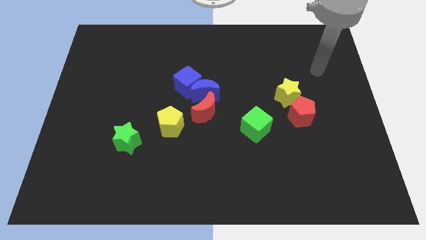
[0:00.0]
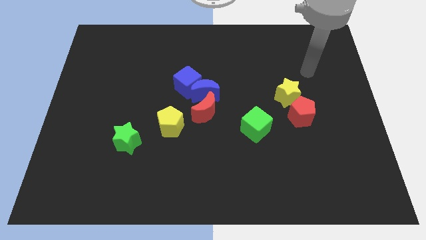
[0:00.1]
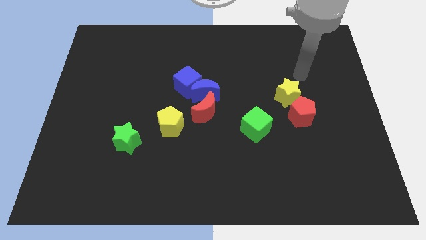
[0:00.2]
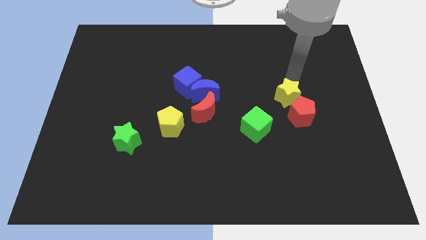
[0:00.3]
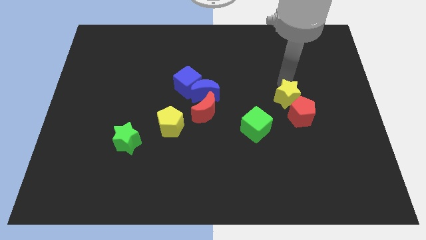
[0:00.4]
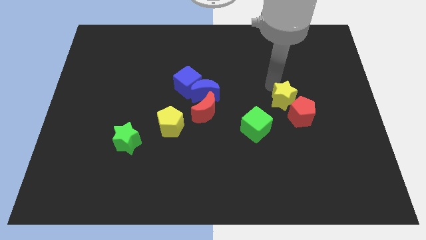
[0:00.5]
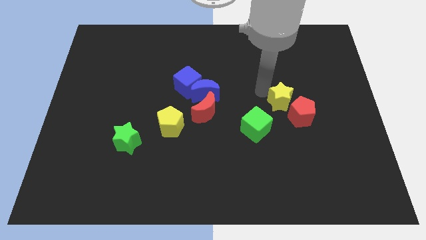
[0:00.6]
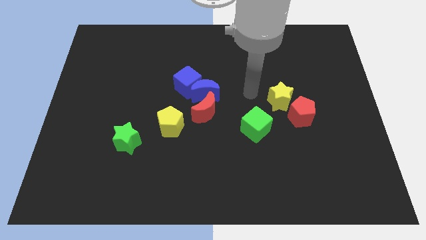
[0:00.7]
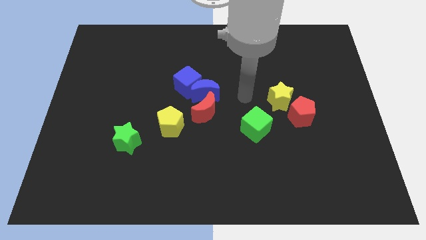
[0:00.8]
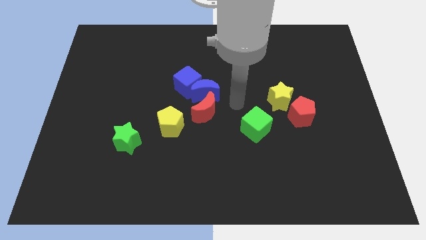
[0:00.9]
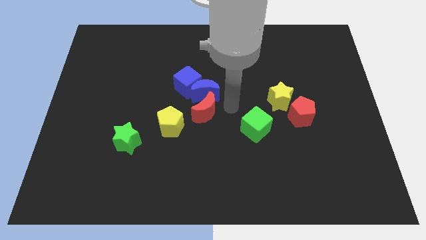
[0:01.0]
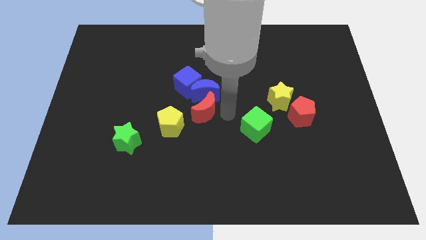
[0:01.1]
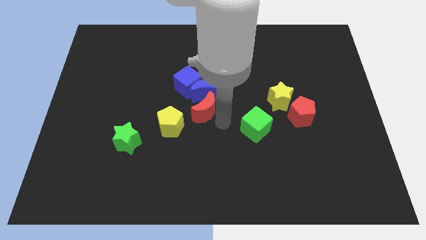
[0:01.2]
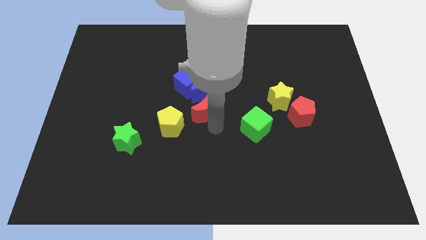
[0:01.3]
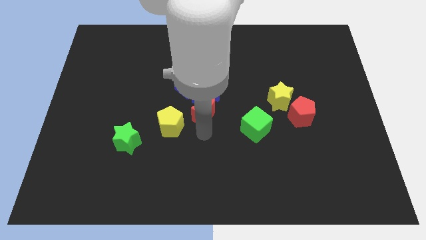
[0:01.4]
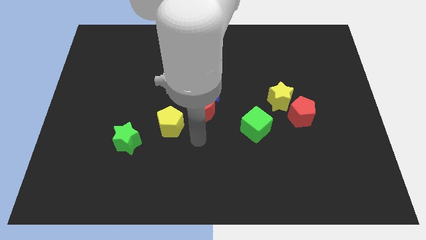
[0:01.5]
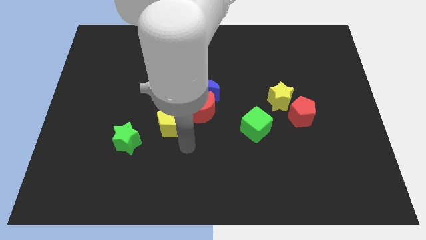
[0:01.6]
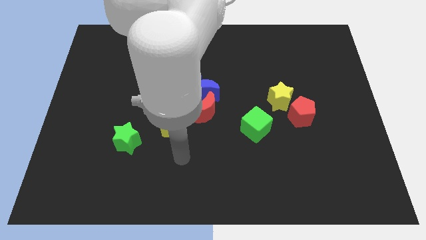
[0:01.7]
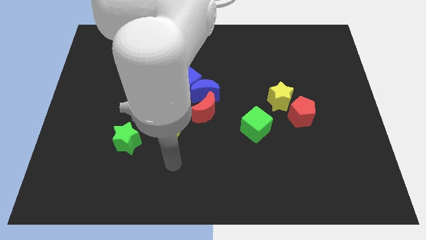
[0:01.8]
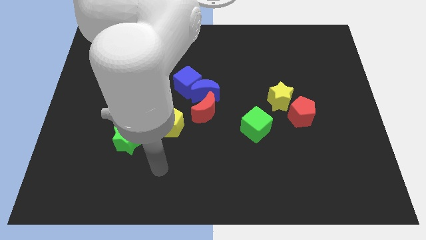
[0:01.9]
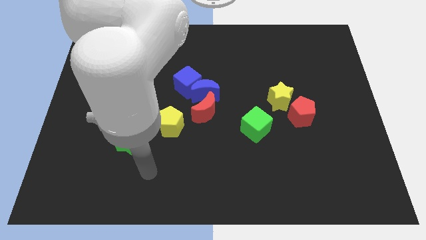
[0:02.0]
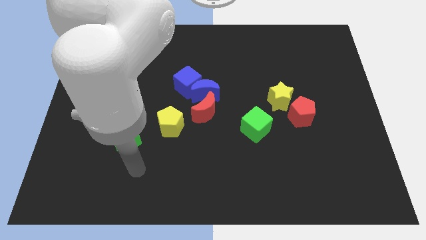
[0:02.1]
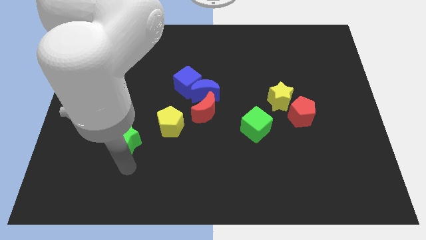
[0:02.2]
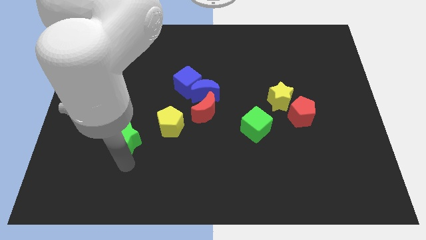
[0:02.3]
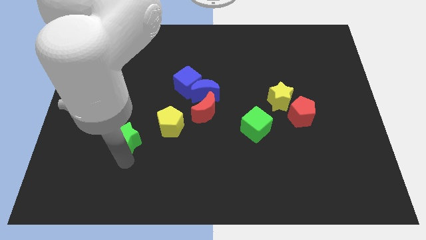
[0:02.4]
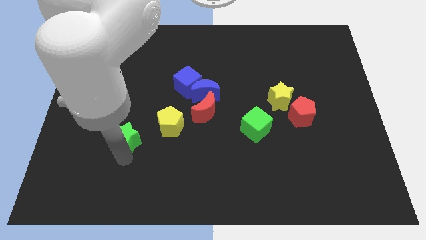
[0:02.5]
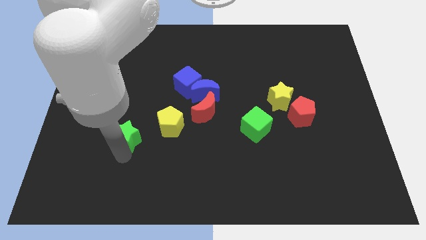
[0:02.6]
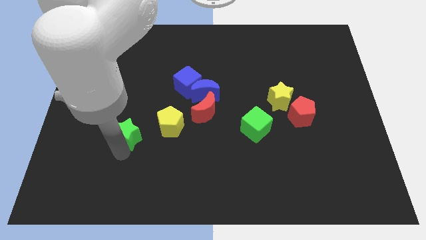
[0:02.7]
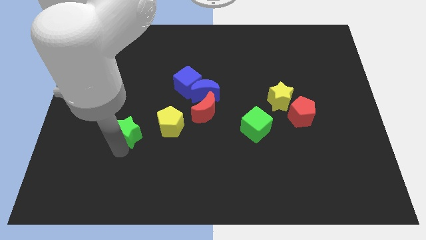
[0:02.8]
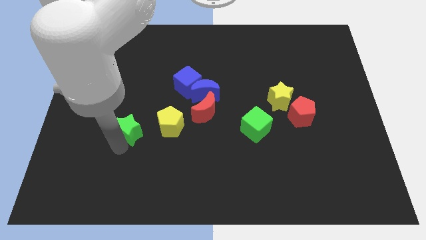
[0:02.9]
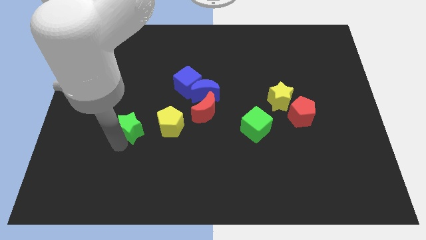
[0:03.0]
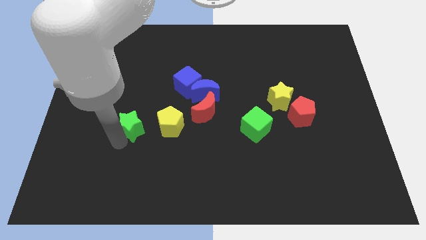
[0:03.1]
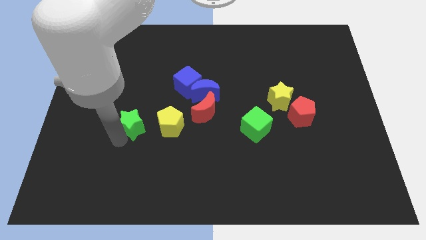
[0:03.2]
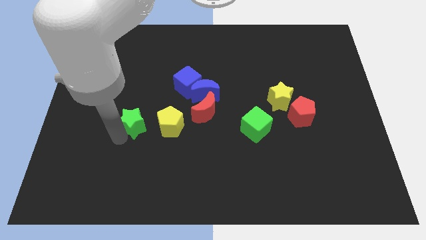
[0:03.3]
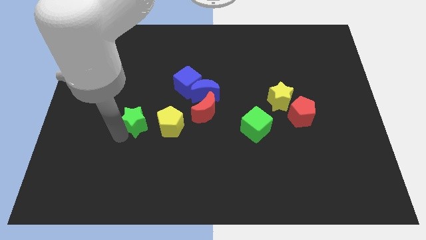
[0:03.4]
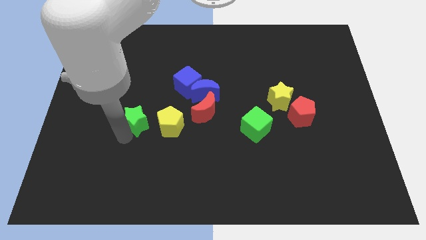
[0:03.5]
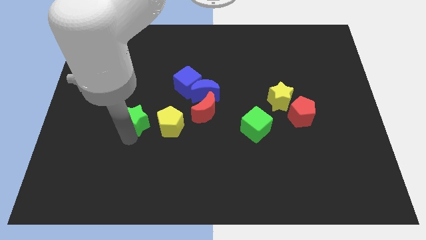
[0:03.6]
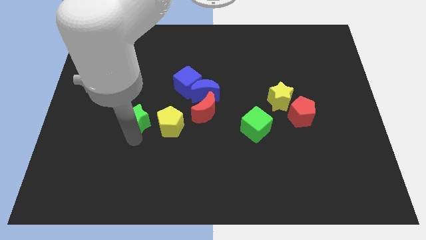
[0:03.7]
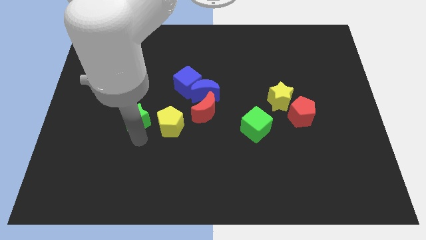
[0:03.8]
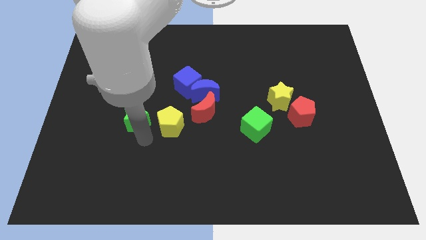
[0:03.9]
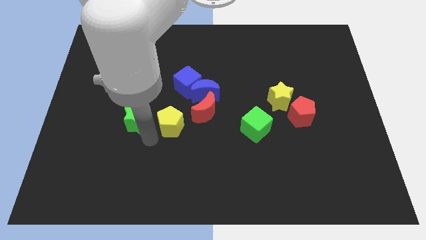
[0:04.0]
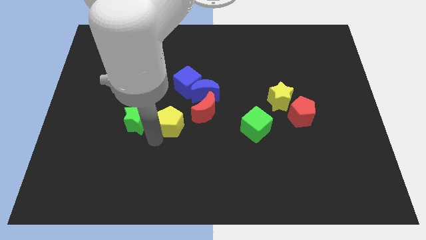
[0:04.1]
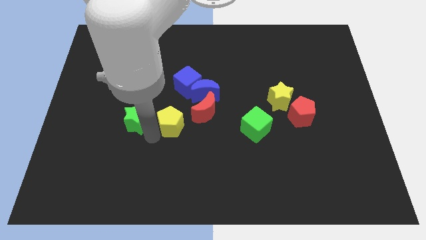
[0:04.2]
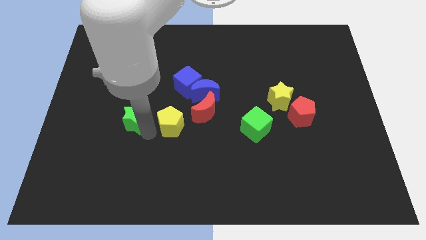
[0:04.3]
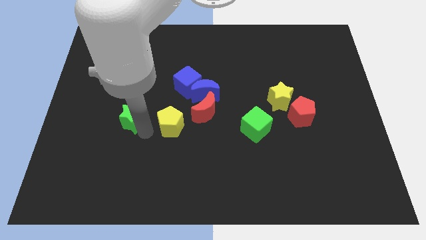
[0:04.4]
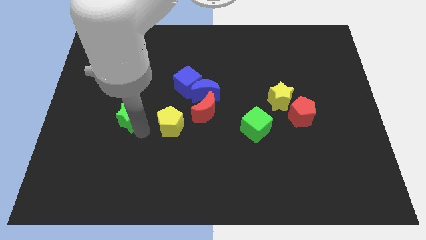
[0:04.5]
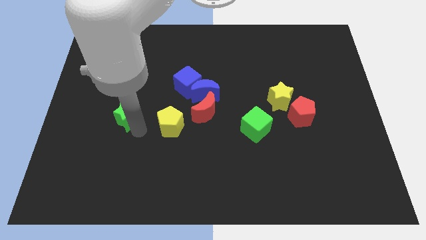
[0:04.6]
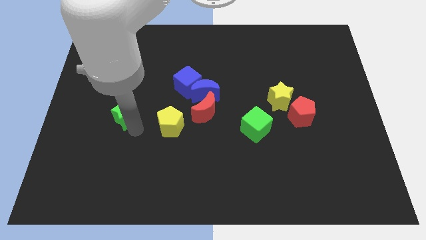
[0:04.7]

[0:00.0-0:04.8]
slightly slide the green star upwards

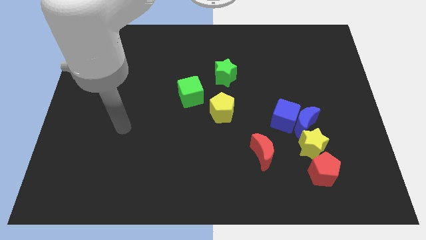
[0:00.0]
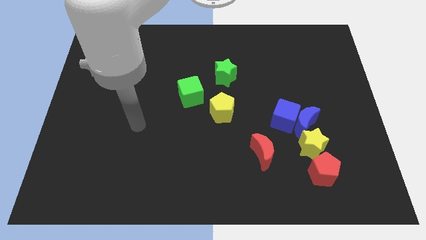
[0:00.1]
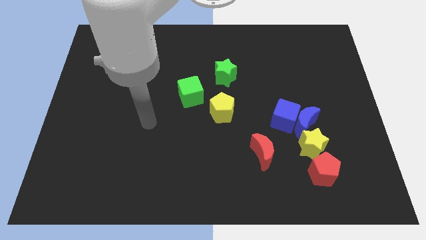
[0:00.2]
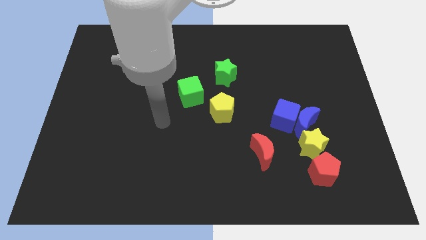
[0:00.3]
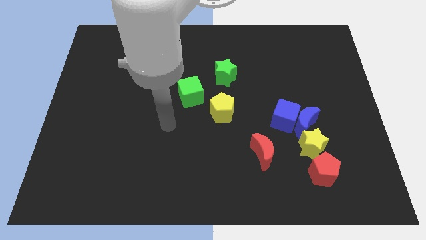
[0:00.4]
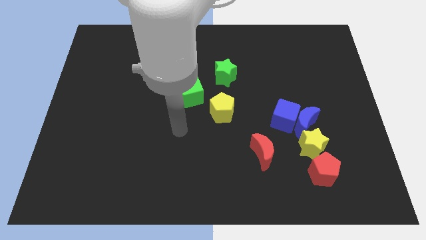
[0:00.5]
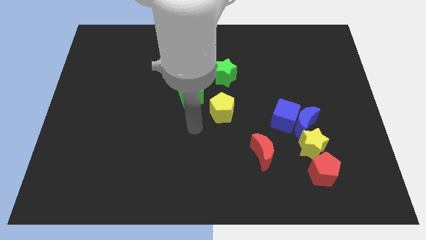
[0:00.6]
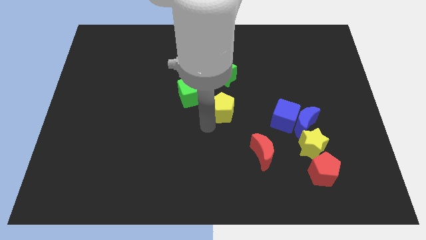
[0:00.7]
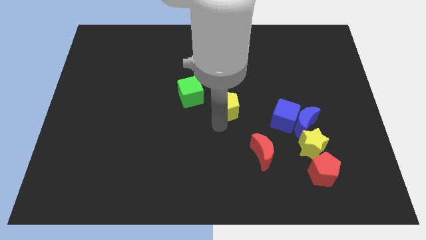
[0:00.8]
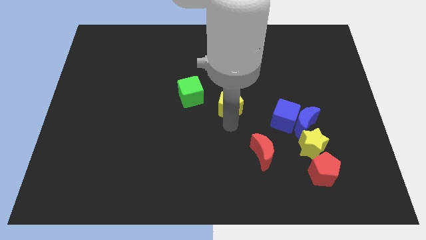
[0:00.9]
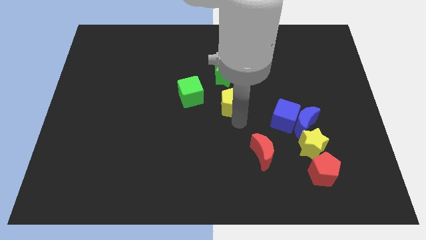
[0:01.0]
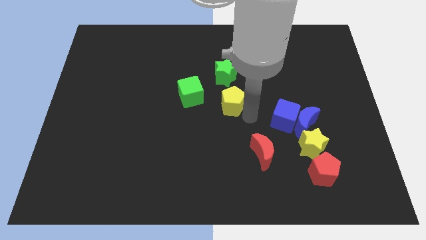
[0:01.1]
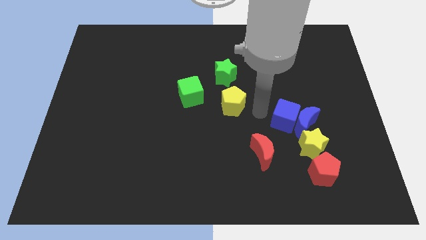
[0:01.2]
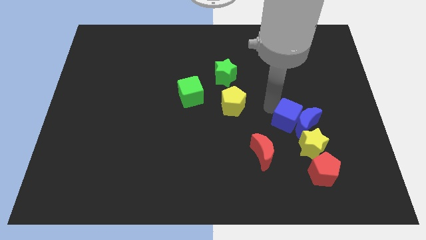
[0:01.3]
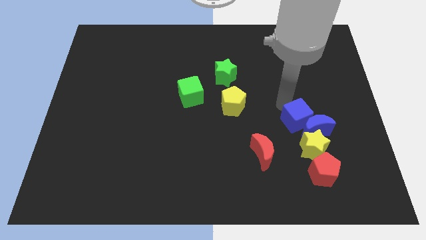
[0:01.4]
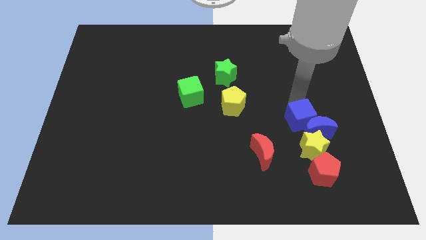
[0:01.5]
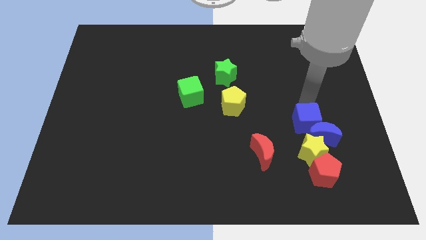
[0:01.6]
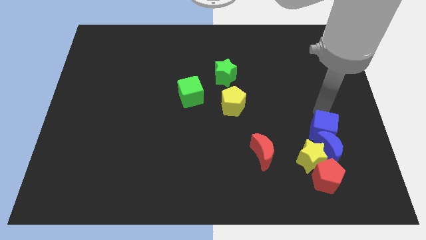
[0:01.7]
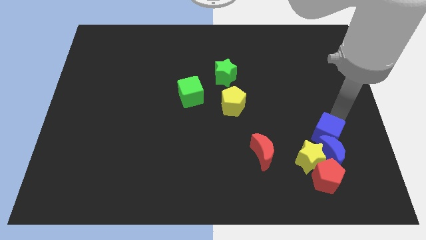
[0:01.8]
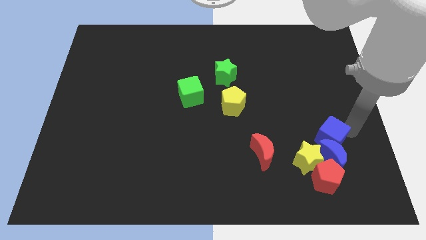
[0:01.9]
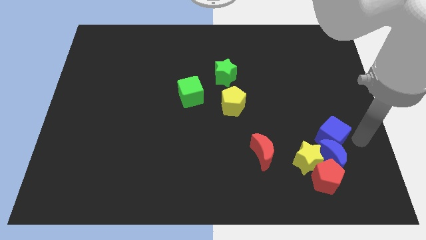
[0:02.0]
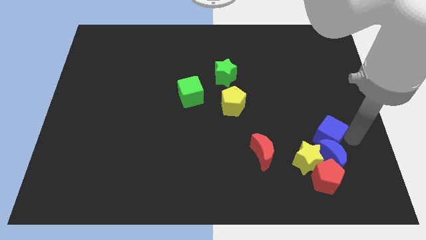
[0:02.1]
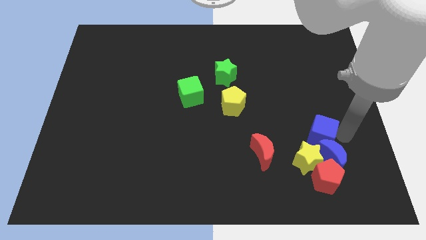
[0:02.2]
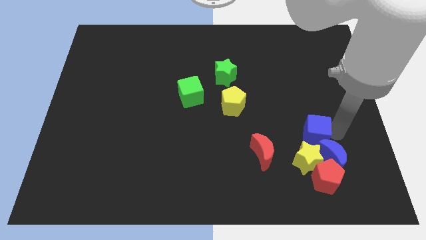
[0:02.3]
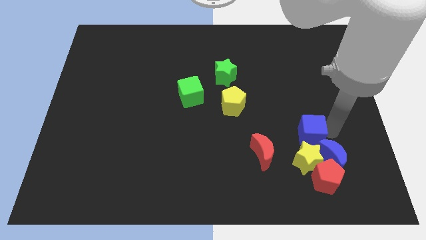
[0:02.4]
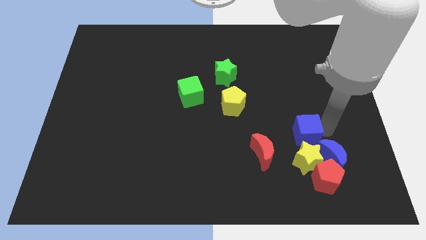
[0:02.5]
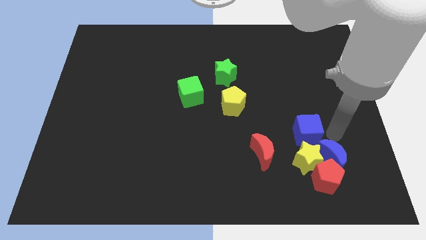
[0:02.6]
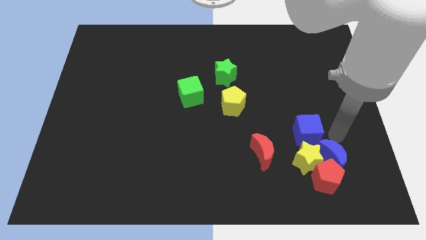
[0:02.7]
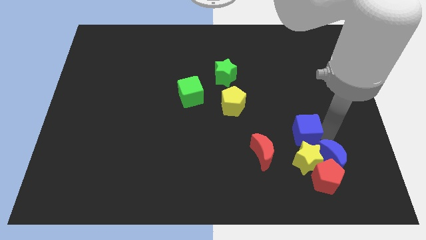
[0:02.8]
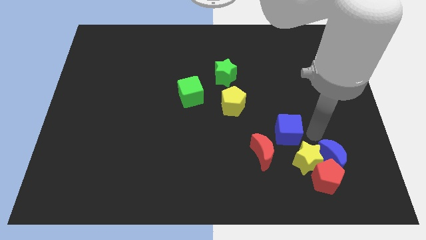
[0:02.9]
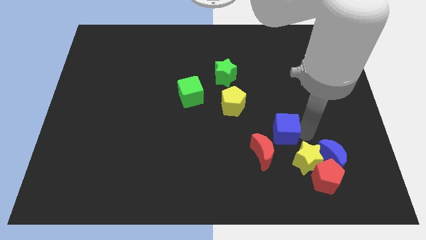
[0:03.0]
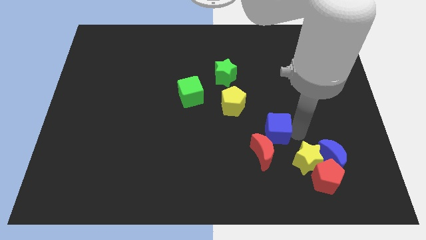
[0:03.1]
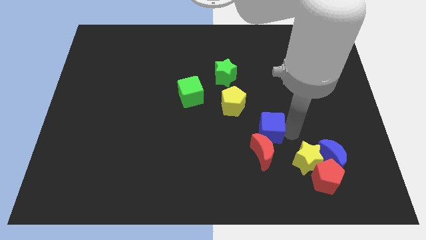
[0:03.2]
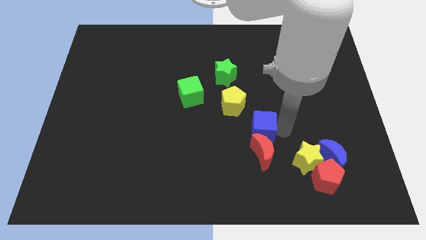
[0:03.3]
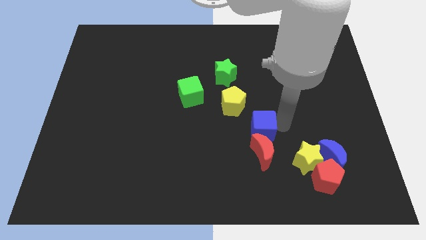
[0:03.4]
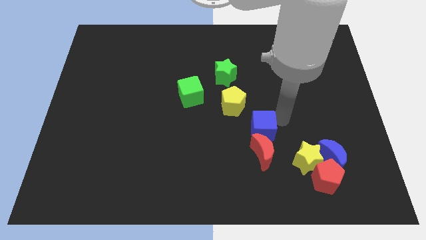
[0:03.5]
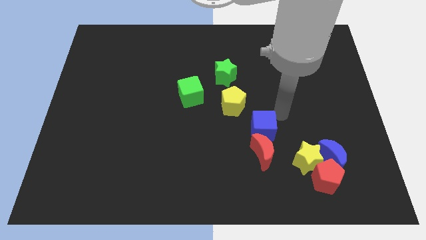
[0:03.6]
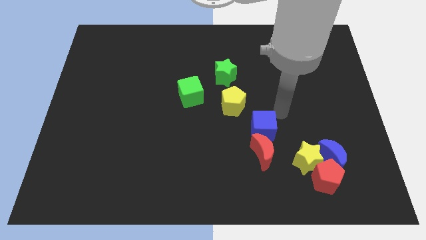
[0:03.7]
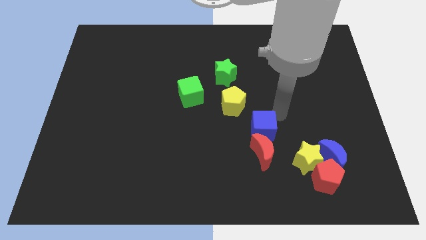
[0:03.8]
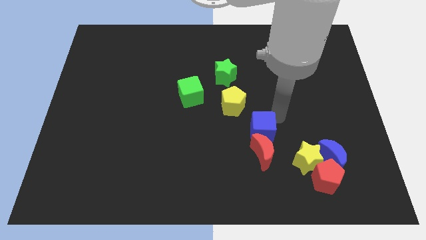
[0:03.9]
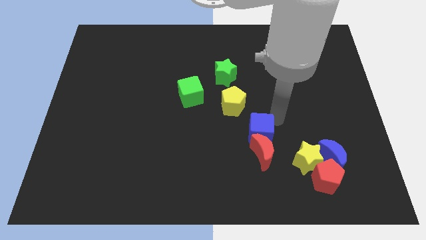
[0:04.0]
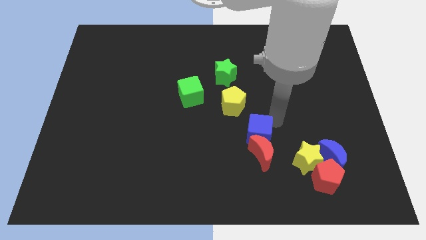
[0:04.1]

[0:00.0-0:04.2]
slightly slide the blue cube downwards and to the left
